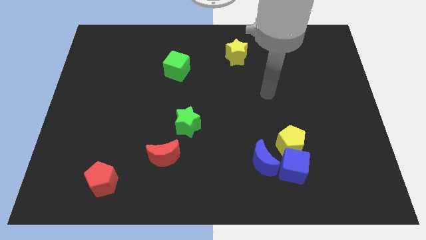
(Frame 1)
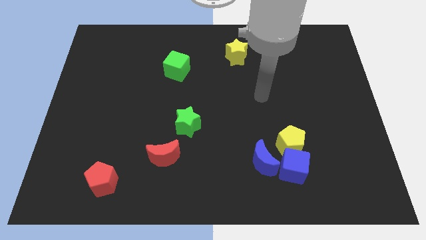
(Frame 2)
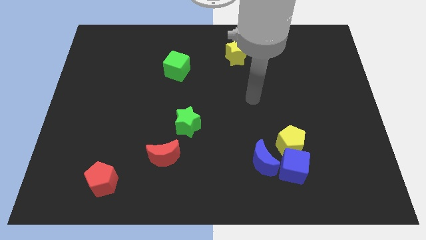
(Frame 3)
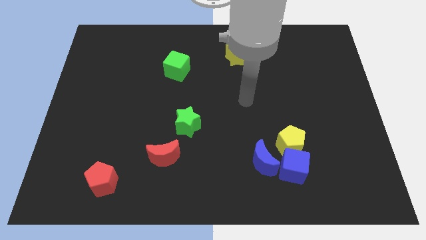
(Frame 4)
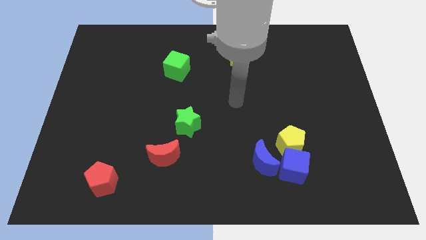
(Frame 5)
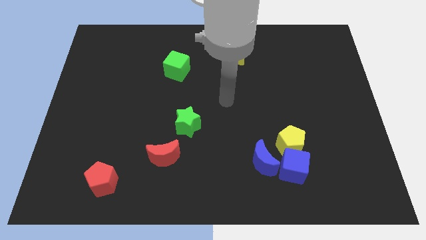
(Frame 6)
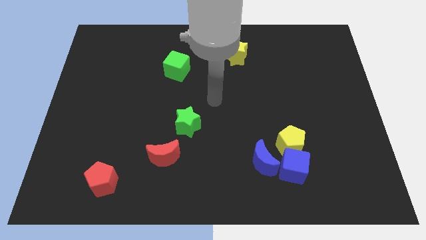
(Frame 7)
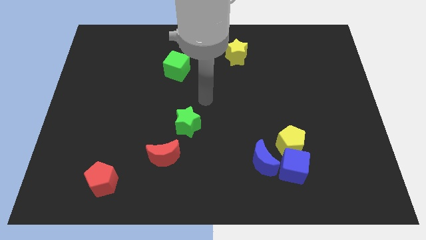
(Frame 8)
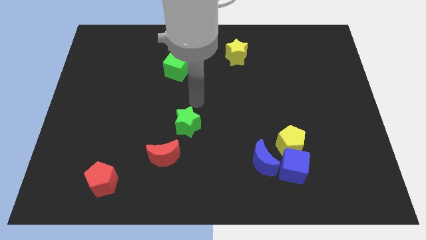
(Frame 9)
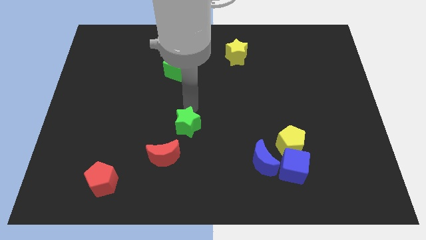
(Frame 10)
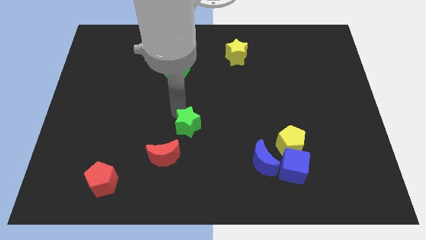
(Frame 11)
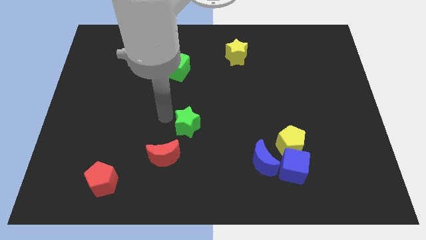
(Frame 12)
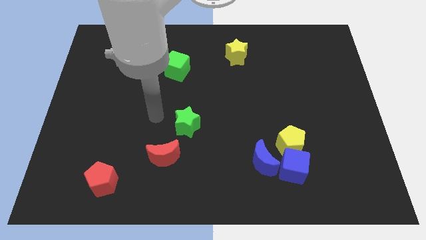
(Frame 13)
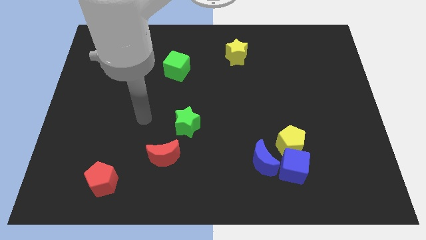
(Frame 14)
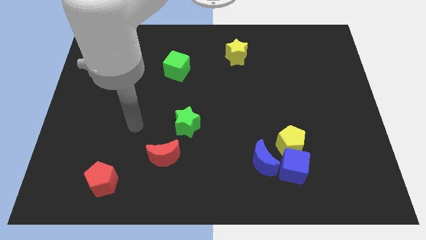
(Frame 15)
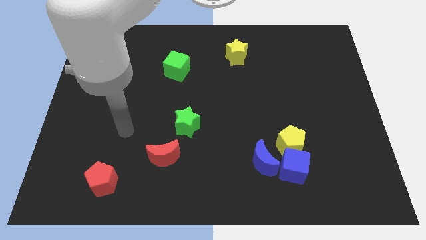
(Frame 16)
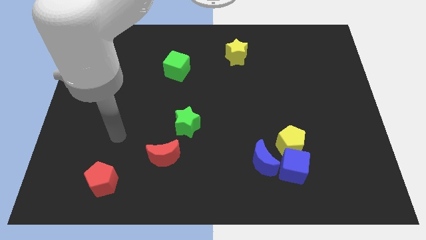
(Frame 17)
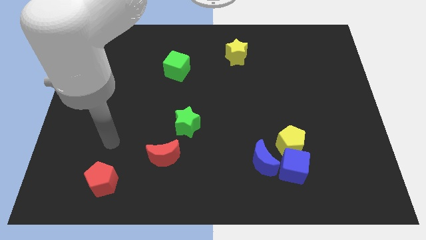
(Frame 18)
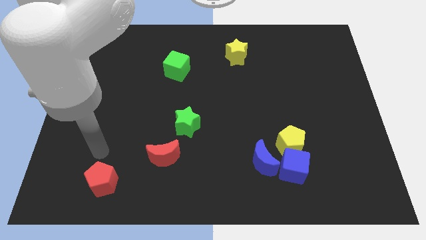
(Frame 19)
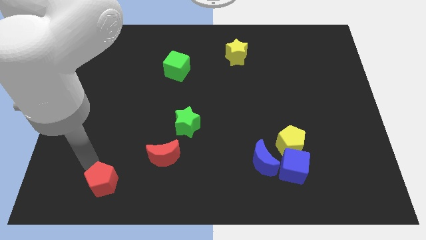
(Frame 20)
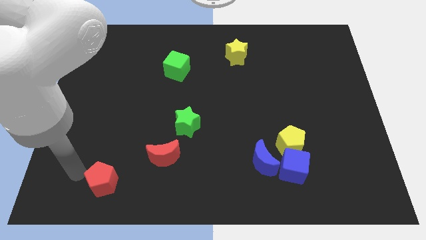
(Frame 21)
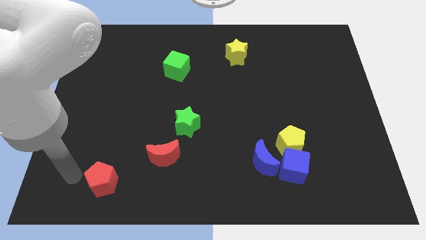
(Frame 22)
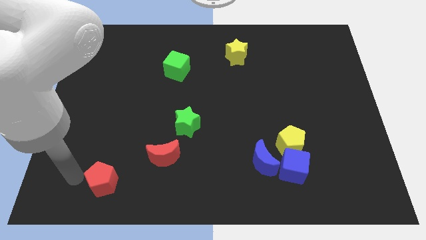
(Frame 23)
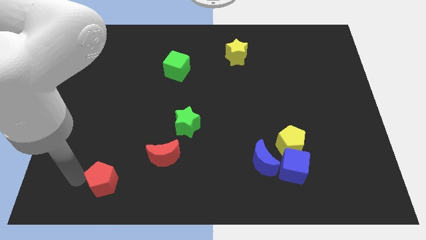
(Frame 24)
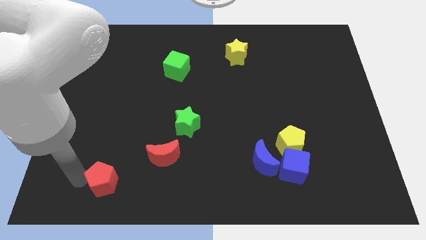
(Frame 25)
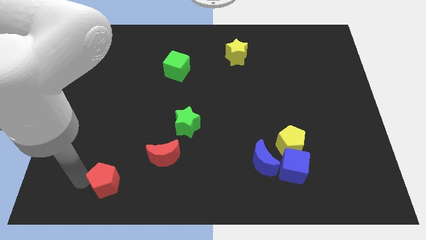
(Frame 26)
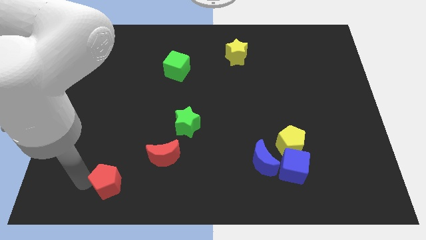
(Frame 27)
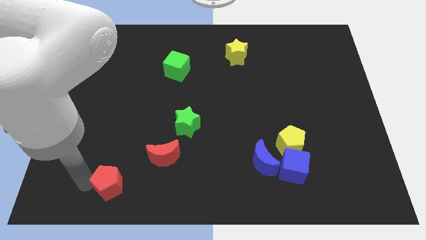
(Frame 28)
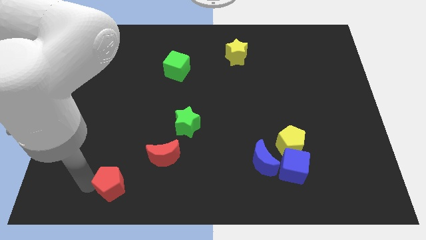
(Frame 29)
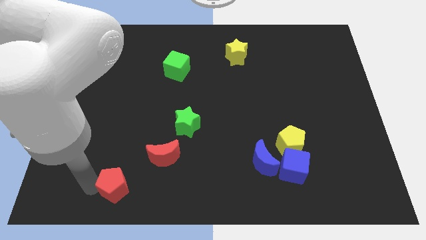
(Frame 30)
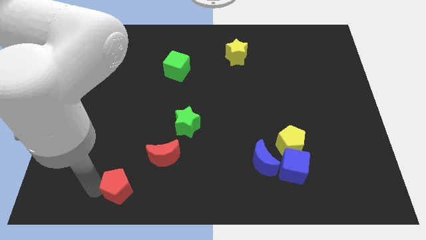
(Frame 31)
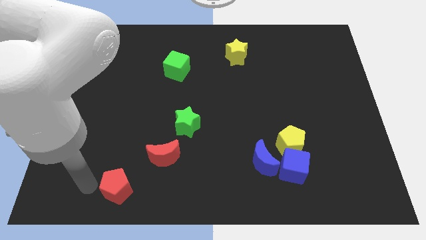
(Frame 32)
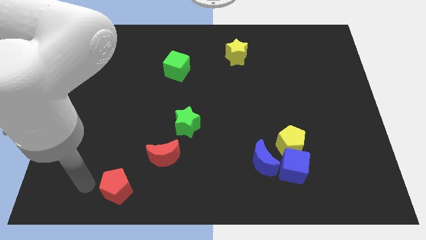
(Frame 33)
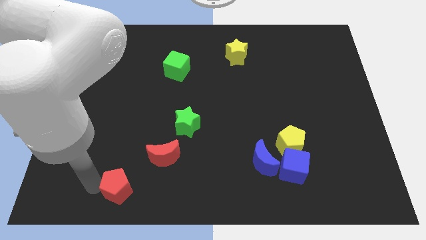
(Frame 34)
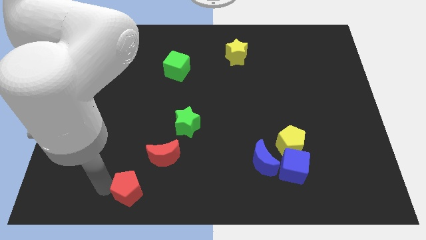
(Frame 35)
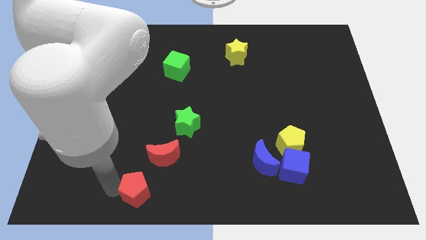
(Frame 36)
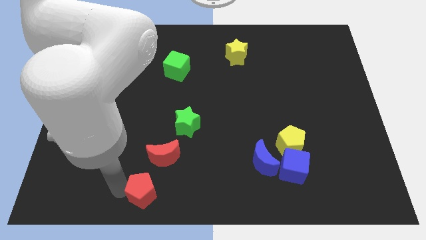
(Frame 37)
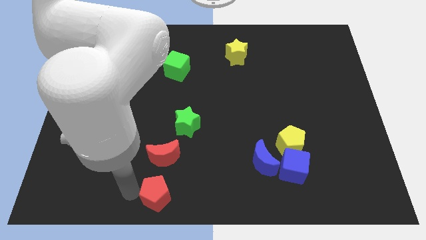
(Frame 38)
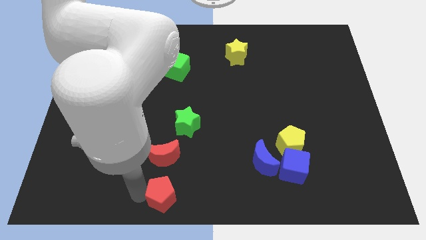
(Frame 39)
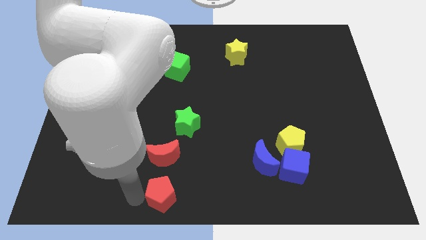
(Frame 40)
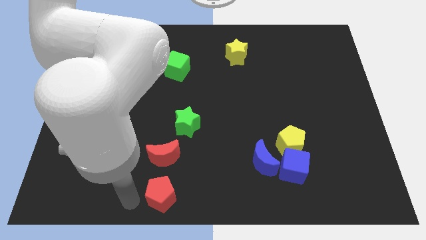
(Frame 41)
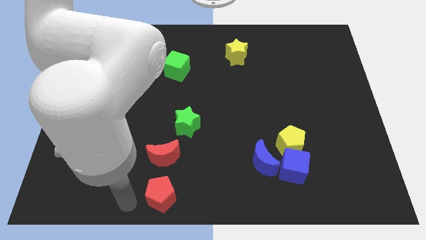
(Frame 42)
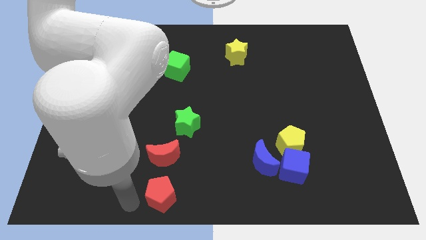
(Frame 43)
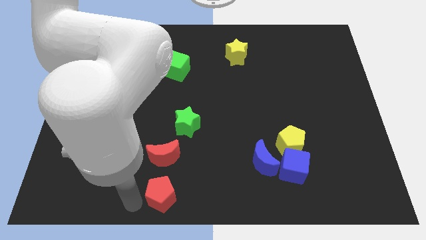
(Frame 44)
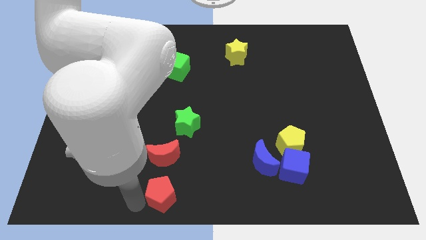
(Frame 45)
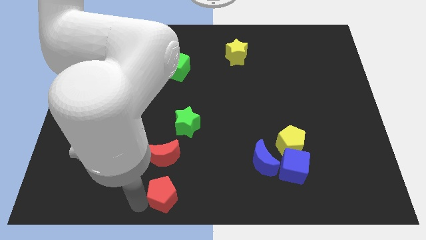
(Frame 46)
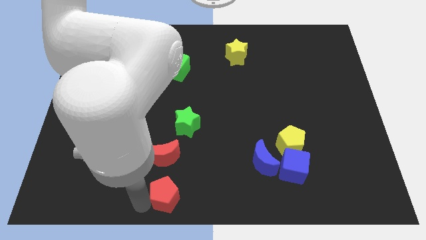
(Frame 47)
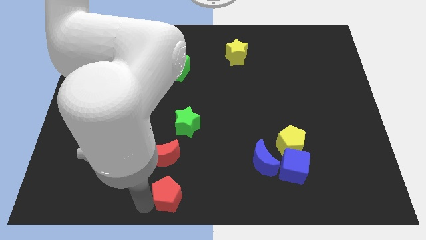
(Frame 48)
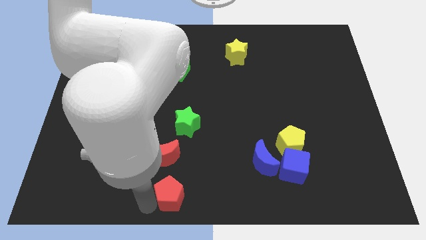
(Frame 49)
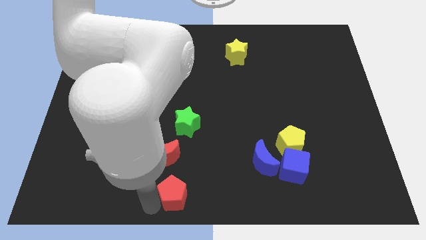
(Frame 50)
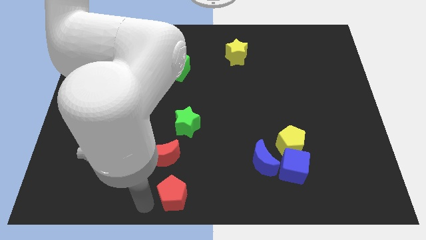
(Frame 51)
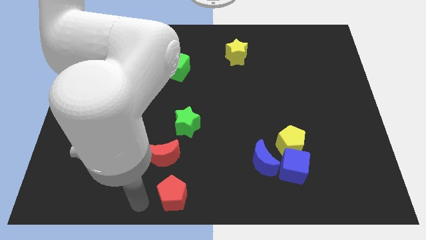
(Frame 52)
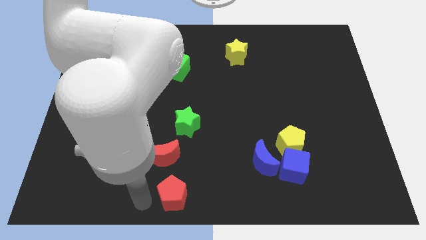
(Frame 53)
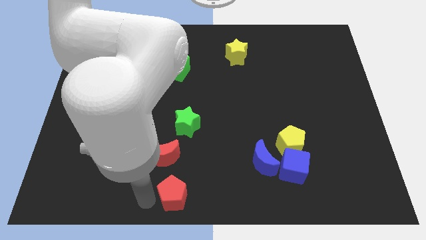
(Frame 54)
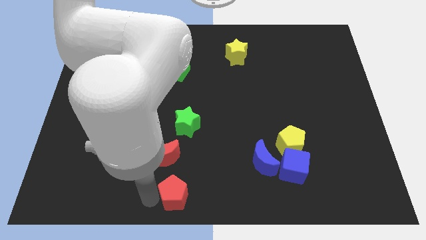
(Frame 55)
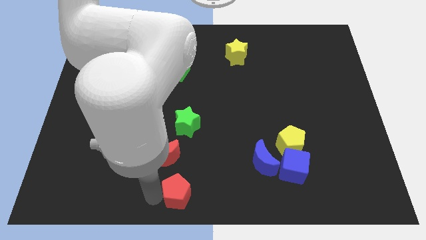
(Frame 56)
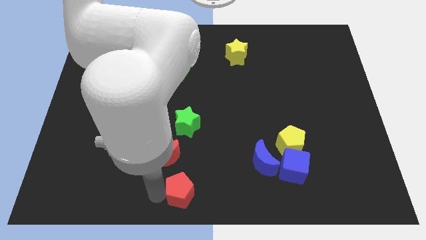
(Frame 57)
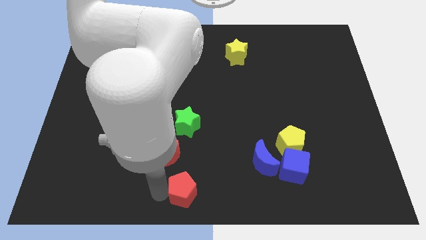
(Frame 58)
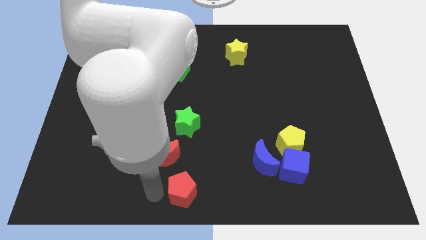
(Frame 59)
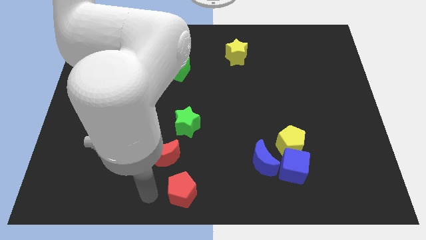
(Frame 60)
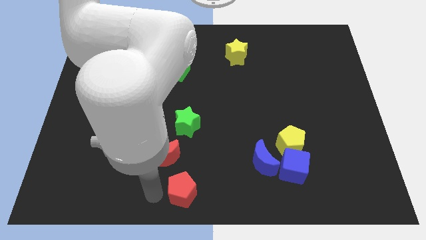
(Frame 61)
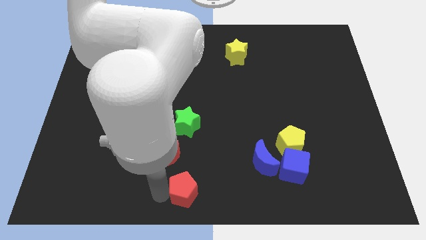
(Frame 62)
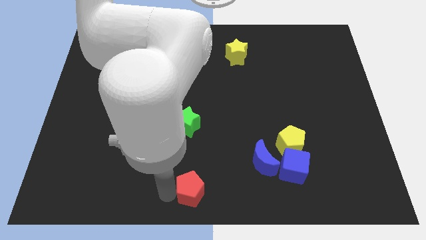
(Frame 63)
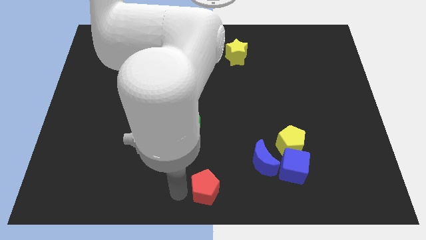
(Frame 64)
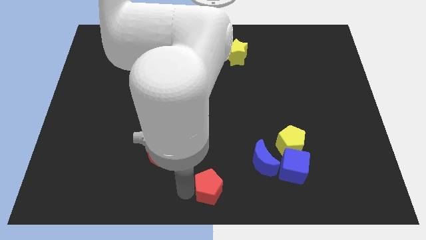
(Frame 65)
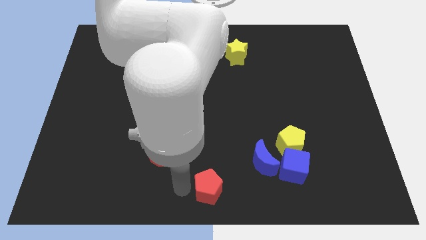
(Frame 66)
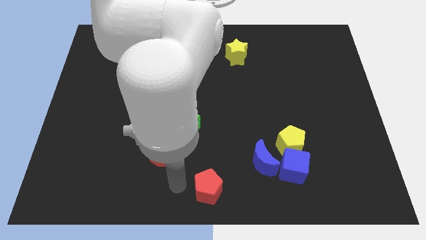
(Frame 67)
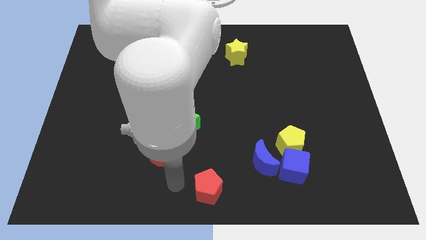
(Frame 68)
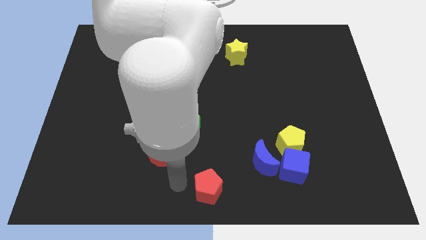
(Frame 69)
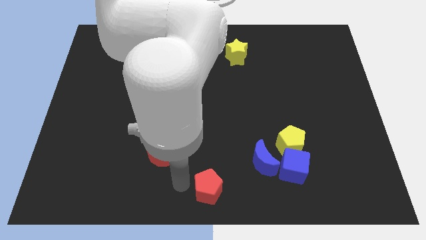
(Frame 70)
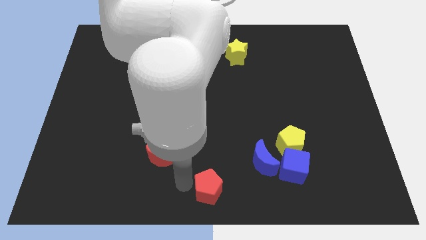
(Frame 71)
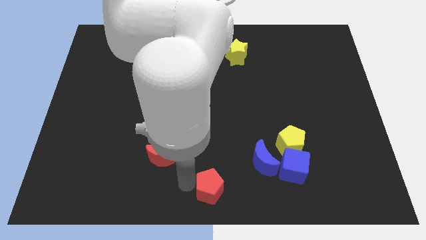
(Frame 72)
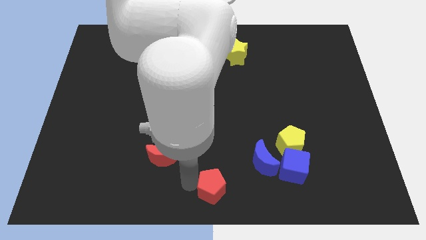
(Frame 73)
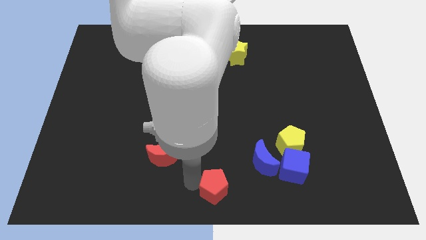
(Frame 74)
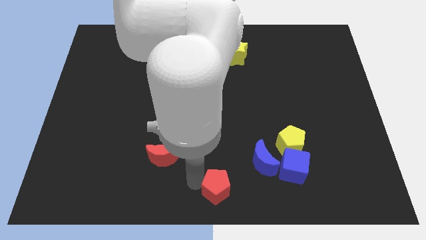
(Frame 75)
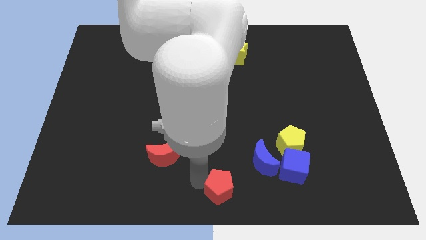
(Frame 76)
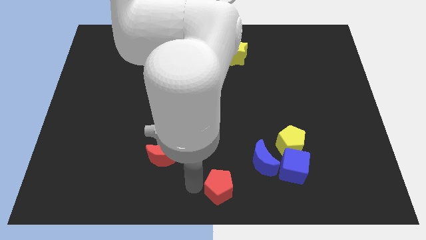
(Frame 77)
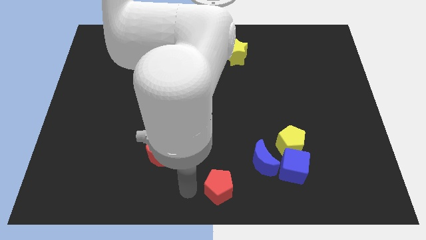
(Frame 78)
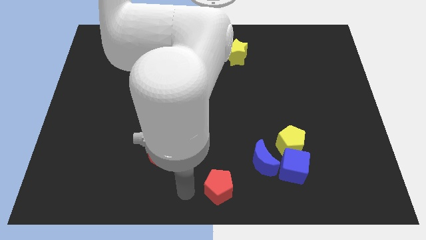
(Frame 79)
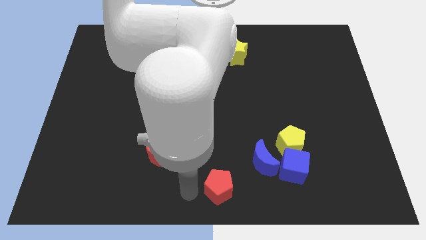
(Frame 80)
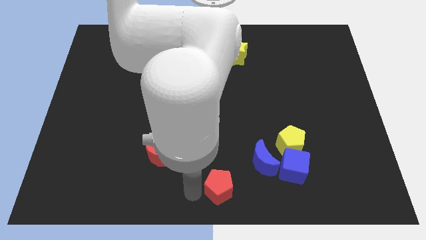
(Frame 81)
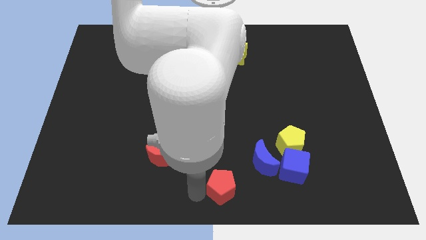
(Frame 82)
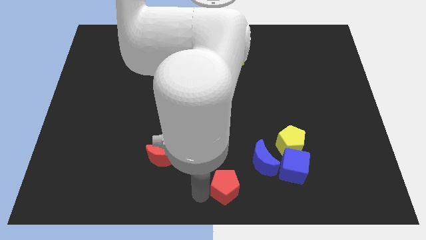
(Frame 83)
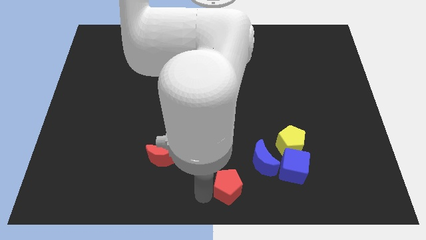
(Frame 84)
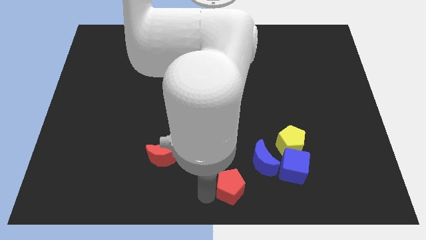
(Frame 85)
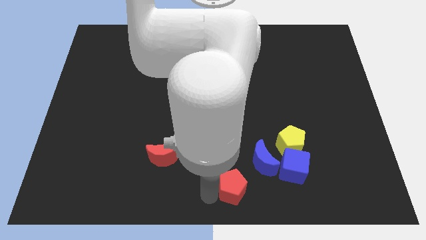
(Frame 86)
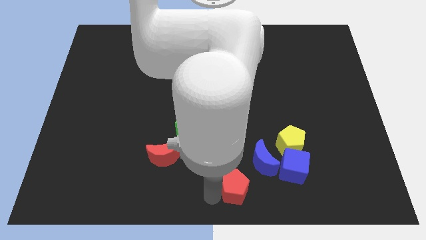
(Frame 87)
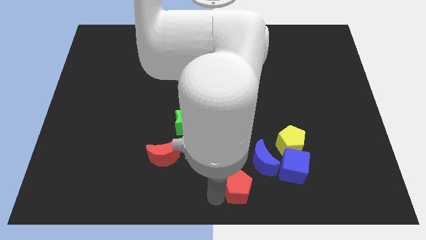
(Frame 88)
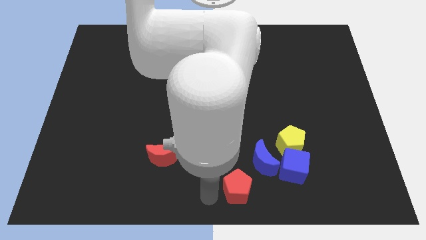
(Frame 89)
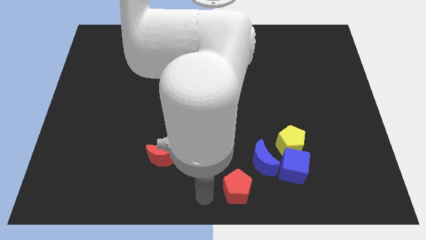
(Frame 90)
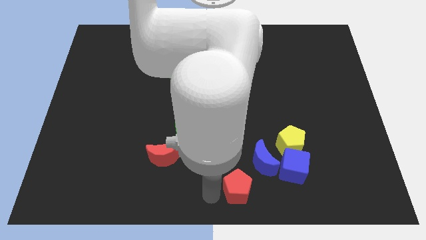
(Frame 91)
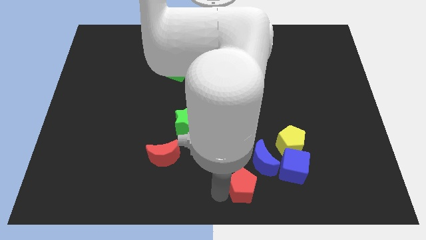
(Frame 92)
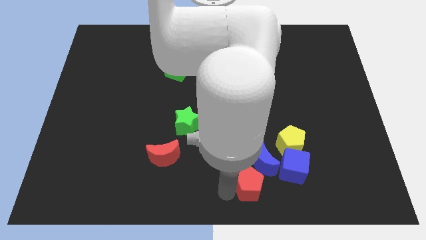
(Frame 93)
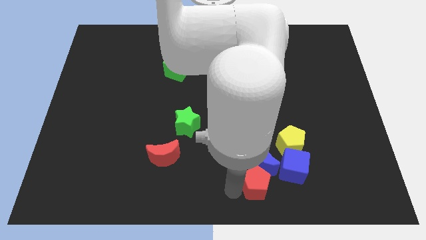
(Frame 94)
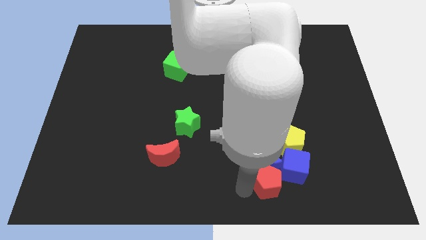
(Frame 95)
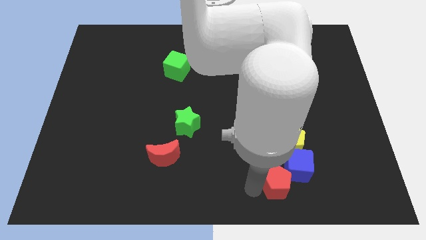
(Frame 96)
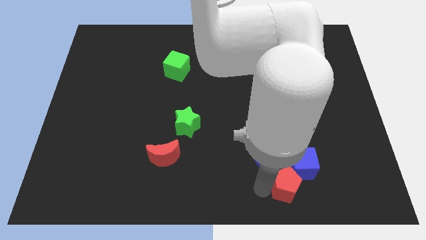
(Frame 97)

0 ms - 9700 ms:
slide the red pentagon next to the blue cube
